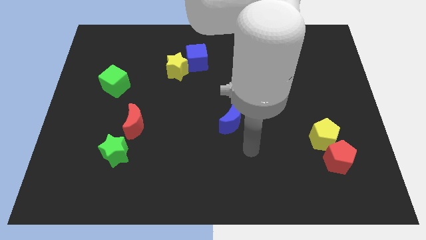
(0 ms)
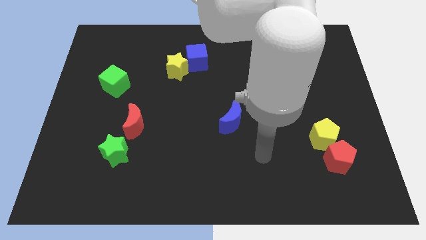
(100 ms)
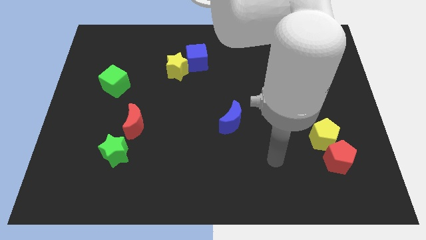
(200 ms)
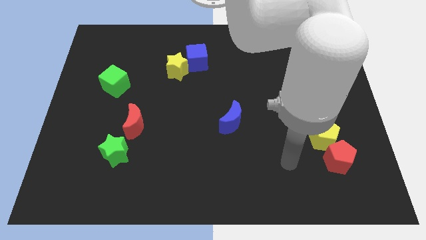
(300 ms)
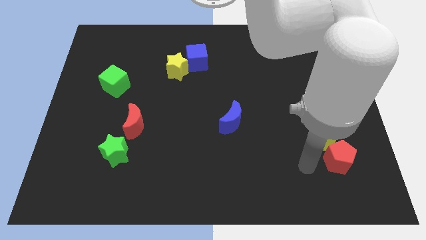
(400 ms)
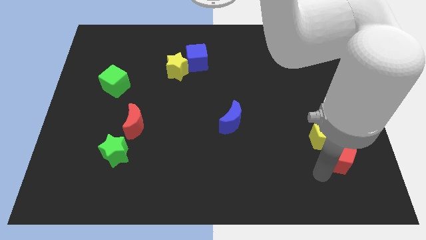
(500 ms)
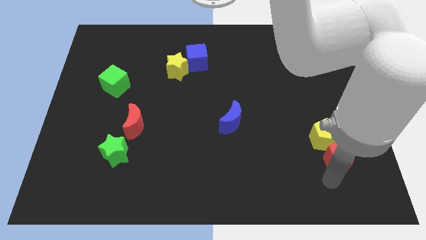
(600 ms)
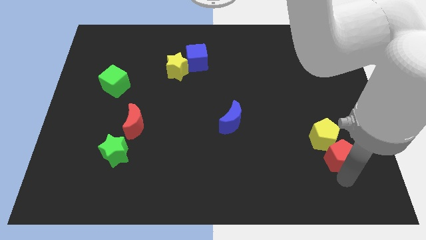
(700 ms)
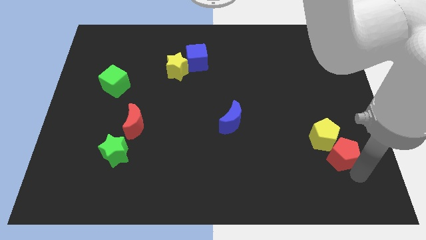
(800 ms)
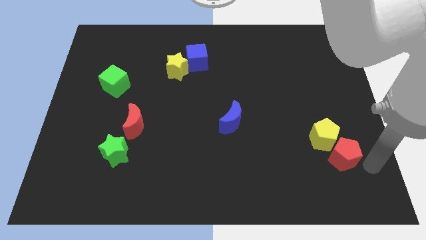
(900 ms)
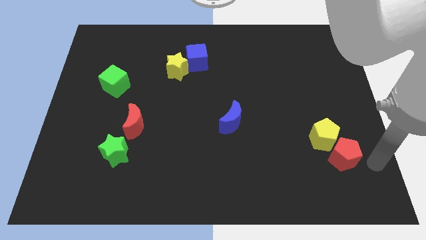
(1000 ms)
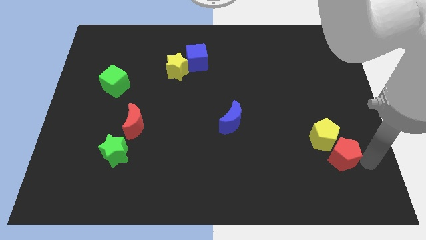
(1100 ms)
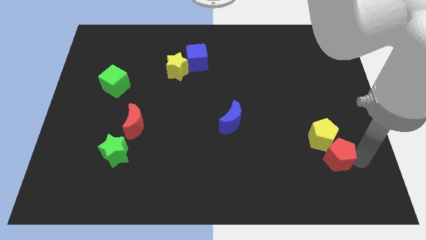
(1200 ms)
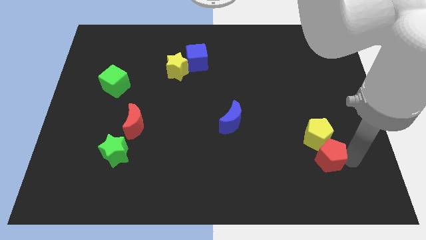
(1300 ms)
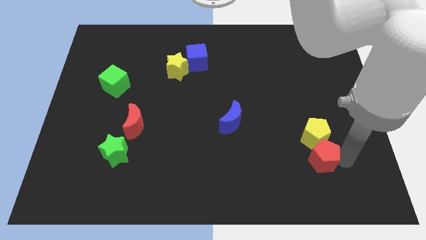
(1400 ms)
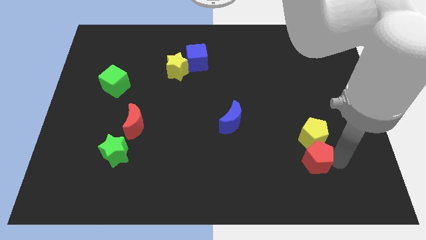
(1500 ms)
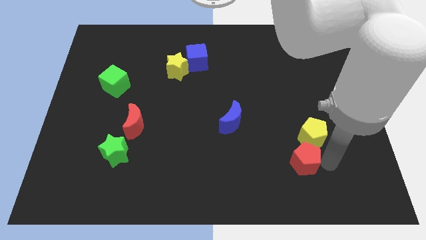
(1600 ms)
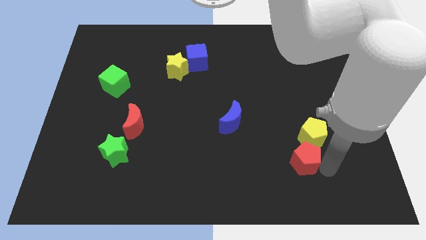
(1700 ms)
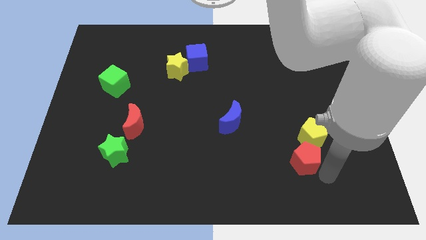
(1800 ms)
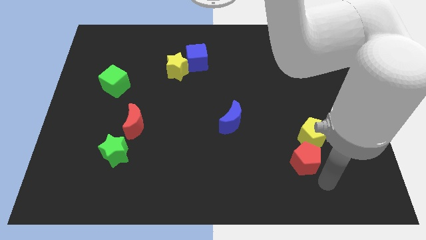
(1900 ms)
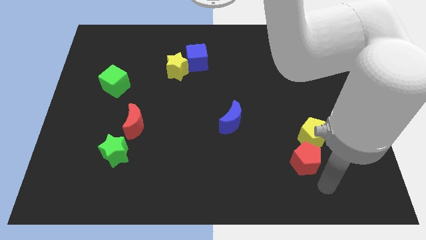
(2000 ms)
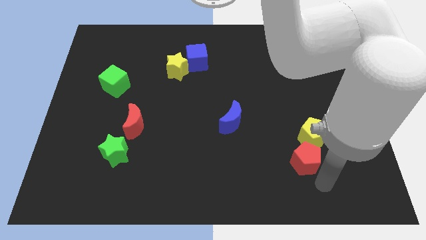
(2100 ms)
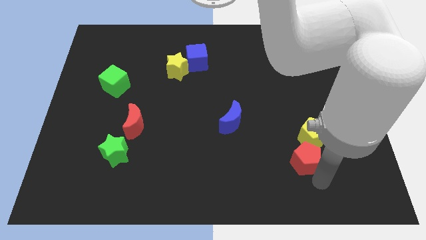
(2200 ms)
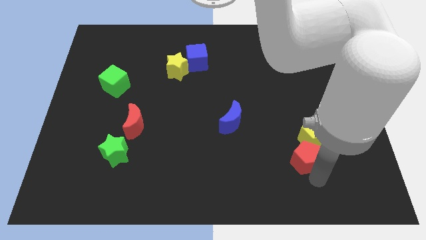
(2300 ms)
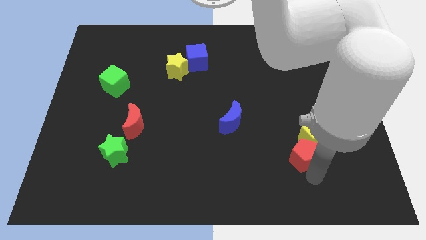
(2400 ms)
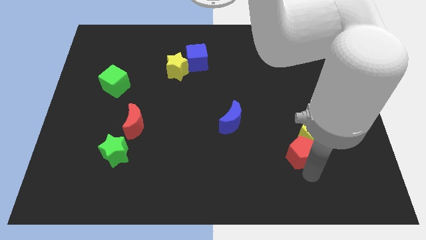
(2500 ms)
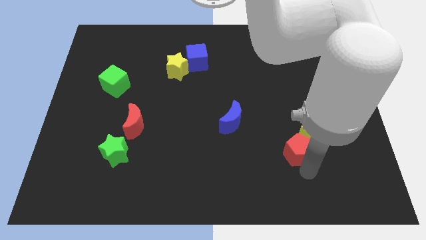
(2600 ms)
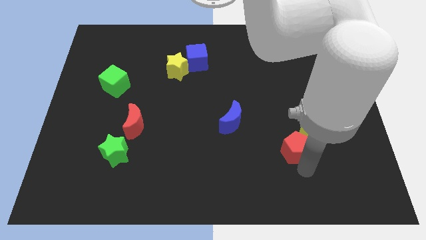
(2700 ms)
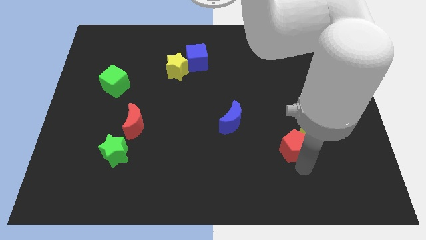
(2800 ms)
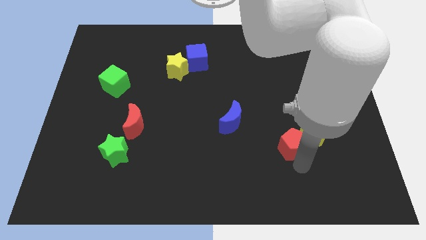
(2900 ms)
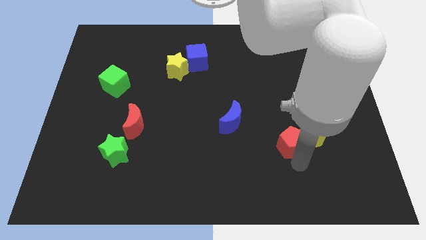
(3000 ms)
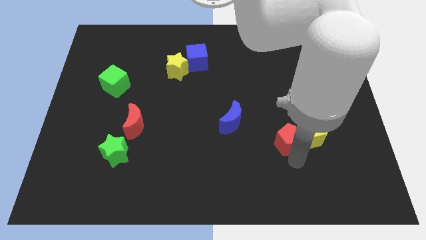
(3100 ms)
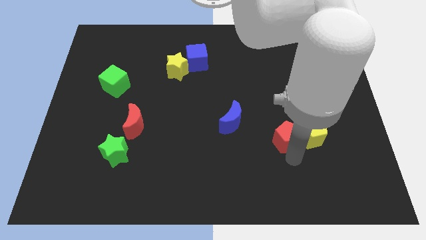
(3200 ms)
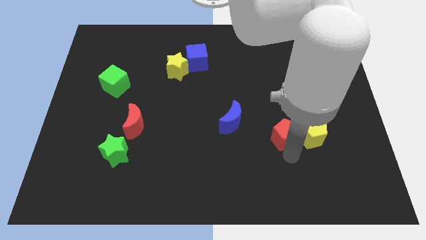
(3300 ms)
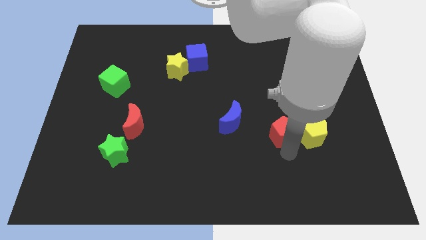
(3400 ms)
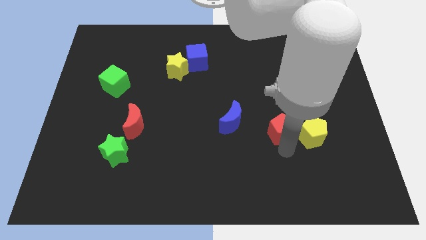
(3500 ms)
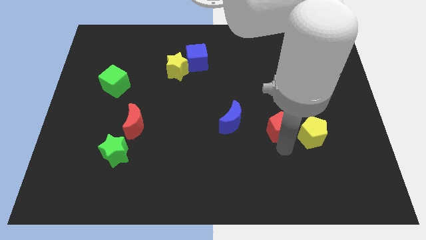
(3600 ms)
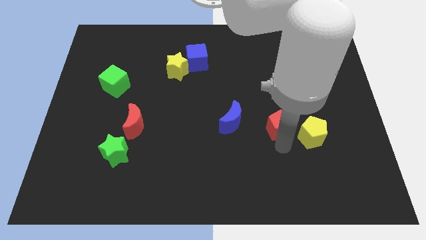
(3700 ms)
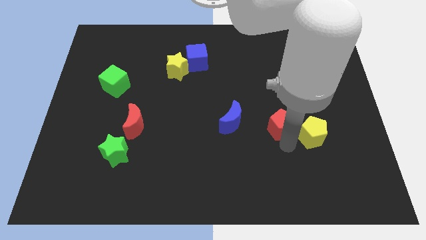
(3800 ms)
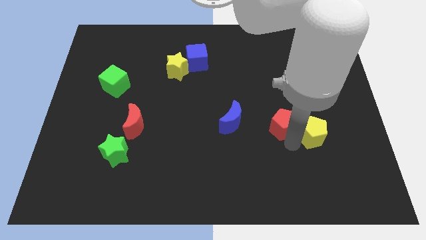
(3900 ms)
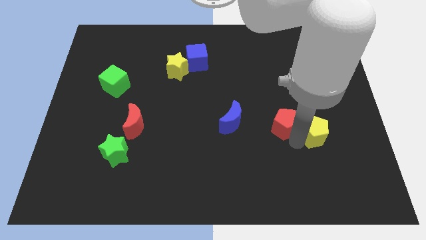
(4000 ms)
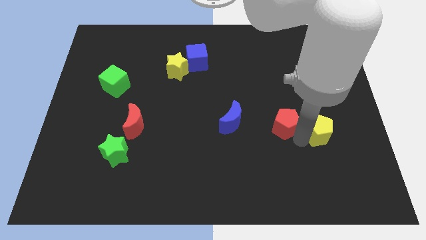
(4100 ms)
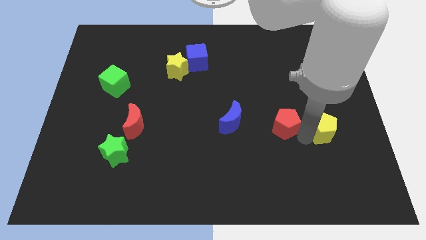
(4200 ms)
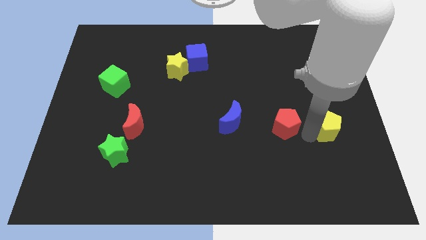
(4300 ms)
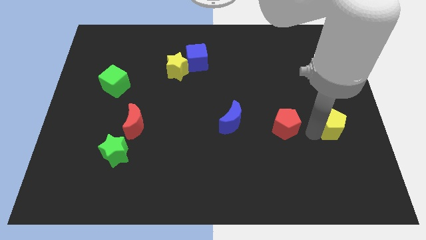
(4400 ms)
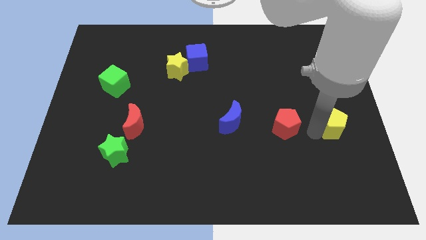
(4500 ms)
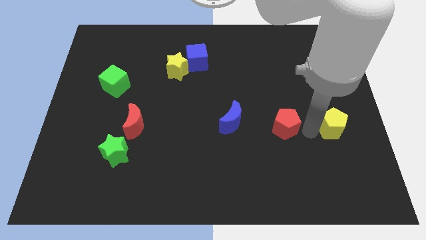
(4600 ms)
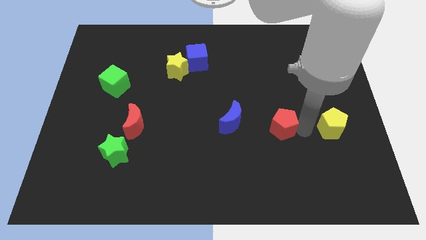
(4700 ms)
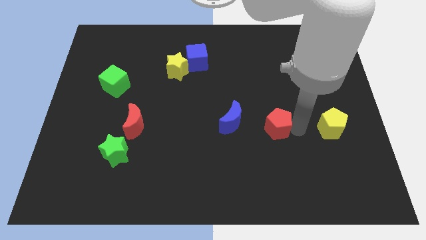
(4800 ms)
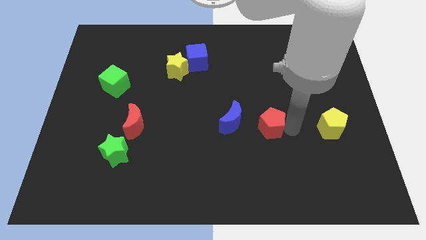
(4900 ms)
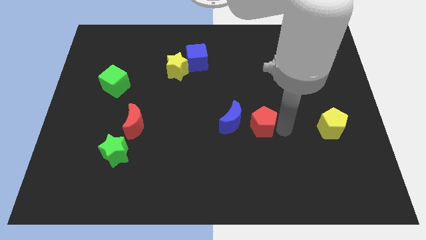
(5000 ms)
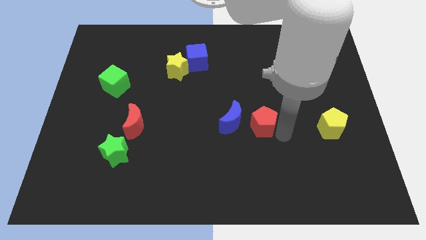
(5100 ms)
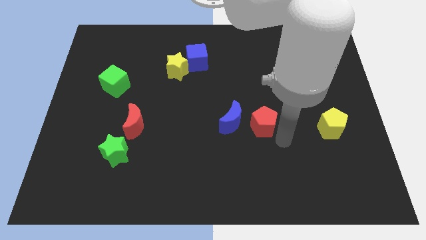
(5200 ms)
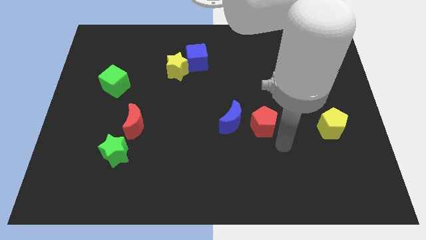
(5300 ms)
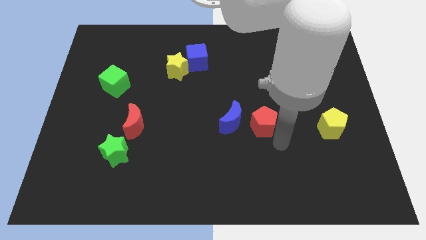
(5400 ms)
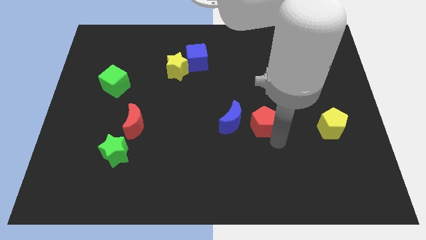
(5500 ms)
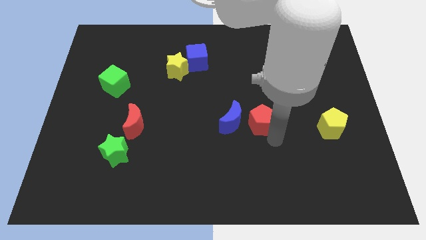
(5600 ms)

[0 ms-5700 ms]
slide the red pentagon to the center

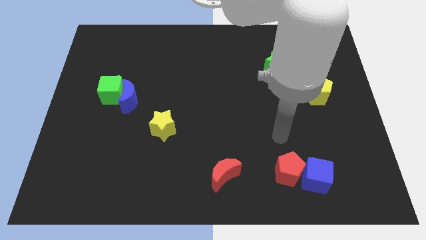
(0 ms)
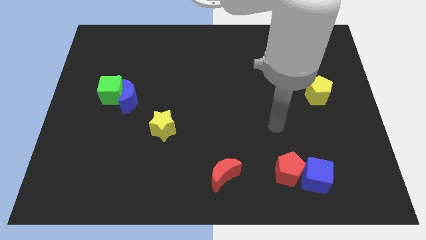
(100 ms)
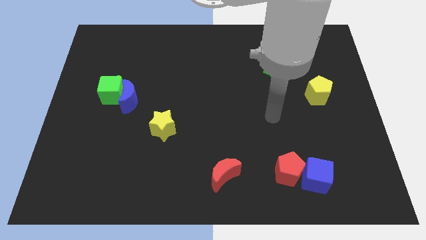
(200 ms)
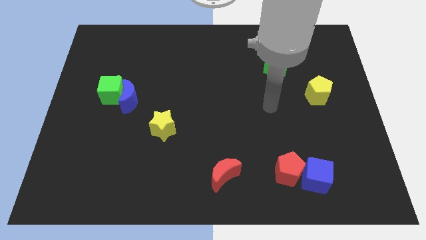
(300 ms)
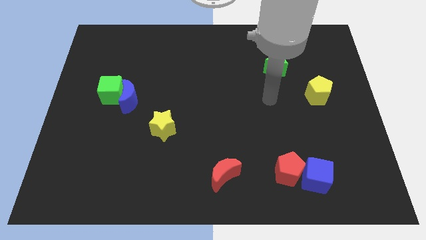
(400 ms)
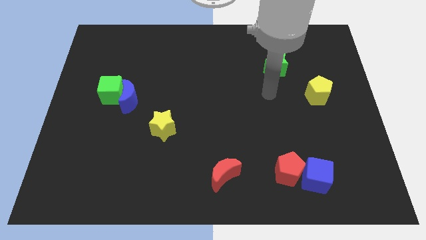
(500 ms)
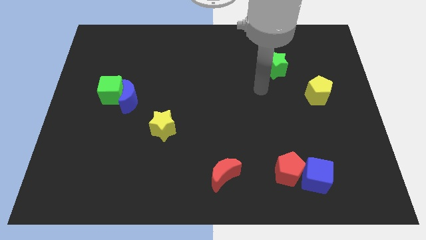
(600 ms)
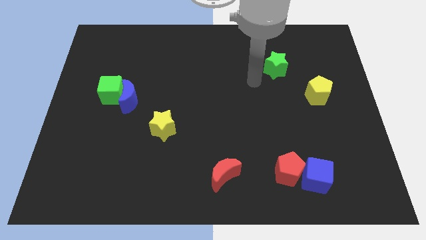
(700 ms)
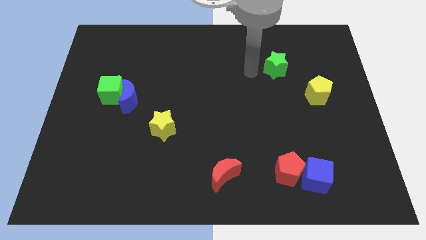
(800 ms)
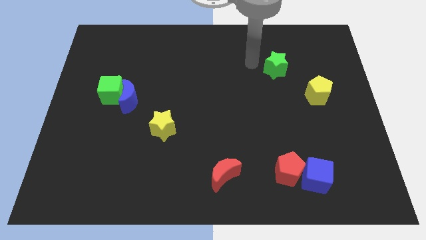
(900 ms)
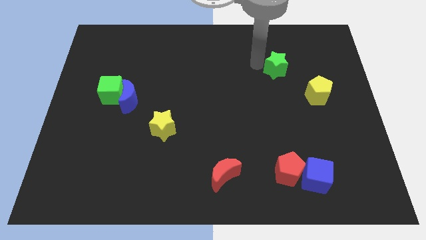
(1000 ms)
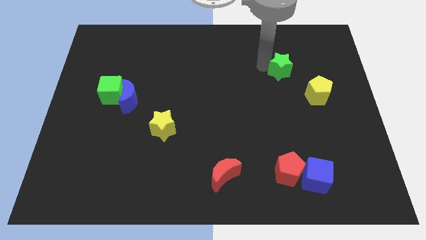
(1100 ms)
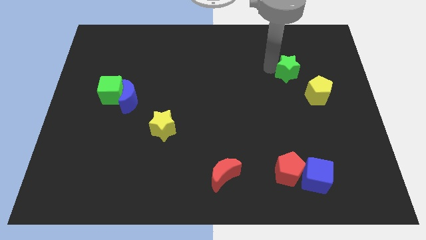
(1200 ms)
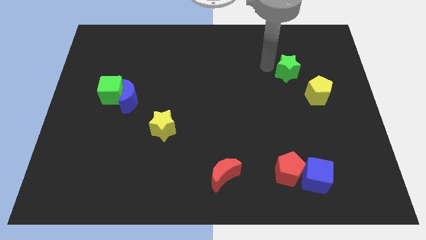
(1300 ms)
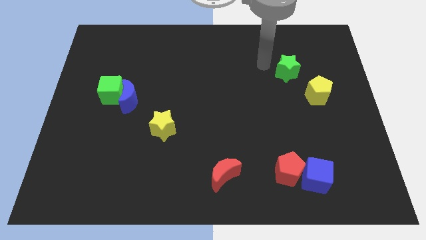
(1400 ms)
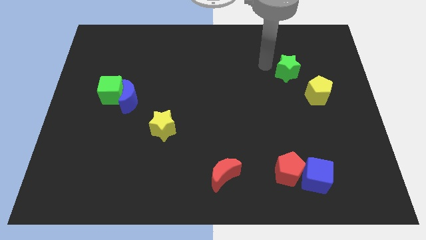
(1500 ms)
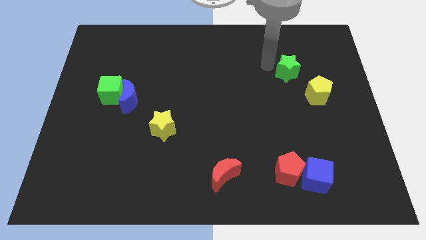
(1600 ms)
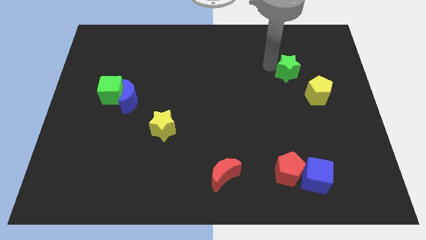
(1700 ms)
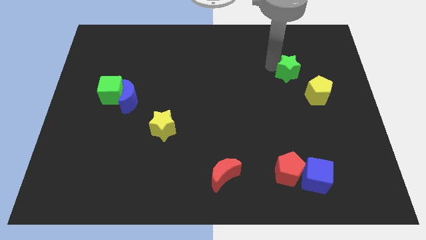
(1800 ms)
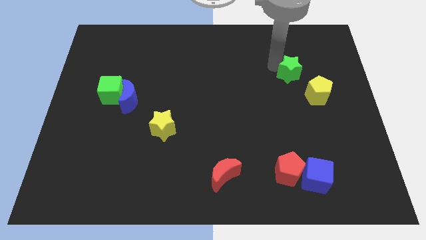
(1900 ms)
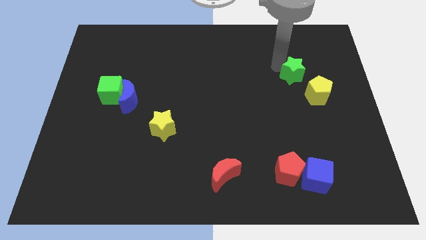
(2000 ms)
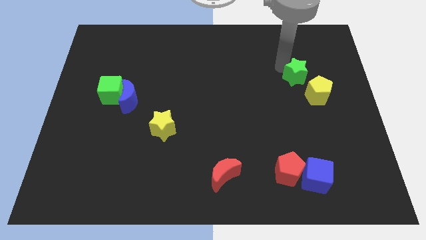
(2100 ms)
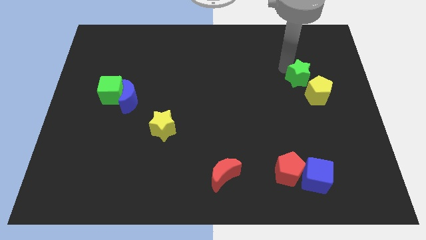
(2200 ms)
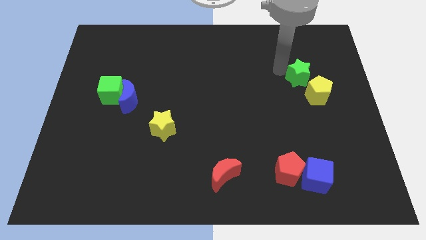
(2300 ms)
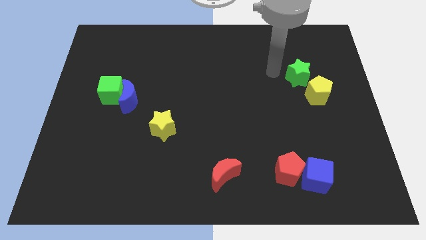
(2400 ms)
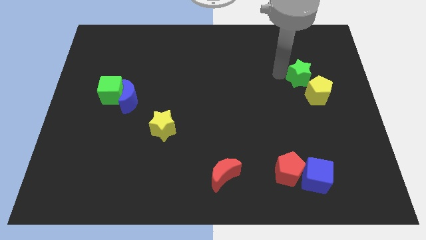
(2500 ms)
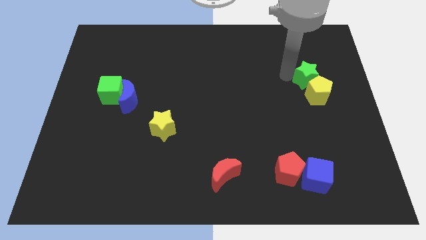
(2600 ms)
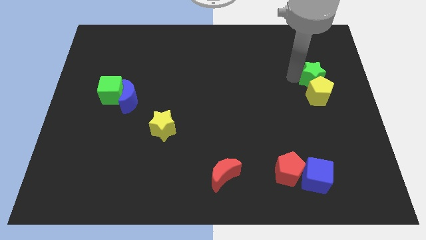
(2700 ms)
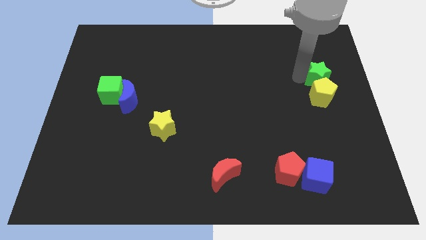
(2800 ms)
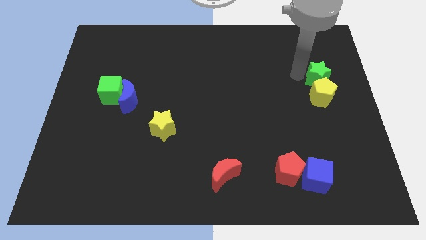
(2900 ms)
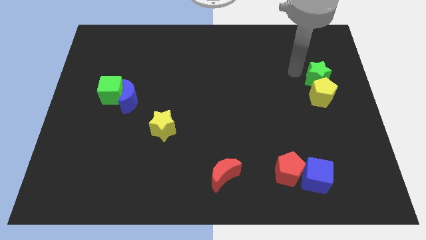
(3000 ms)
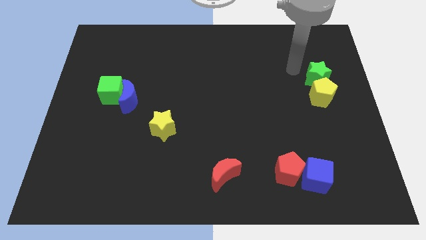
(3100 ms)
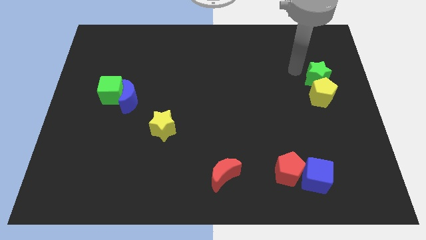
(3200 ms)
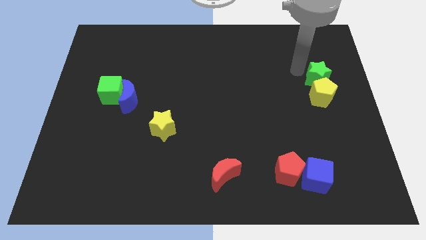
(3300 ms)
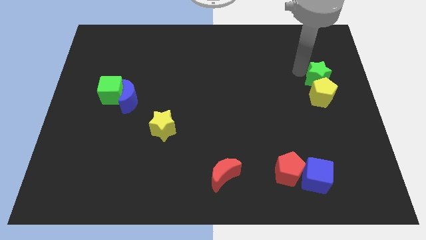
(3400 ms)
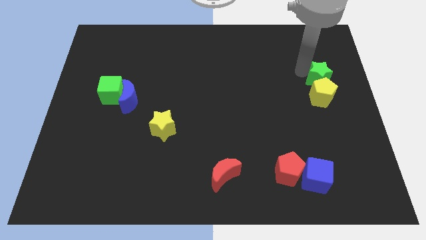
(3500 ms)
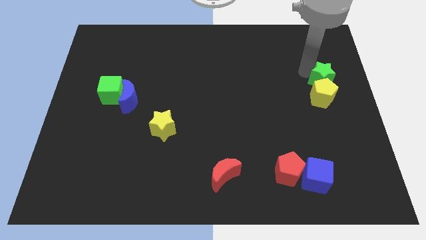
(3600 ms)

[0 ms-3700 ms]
put the green star to the right side of the board
